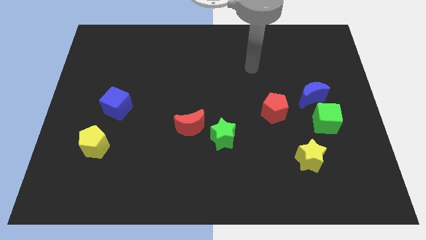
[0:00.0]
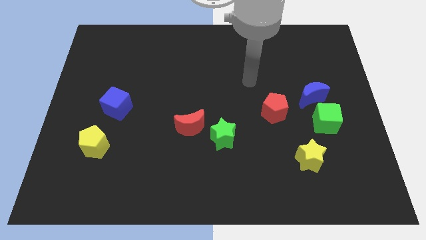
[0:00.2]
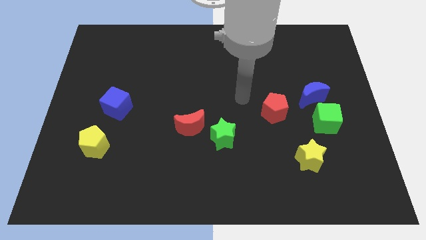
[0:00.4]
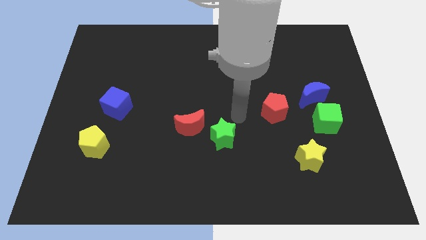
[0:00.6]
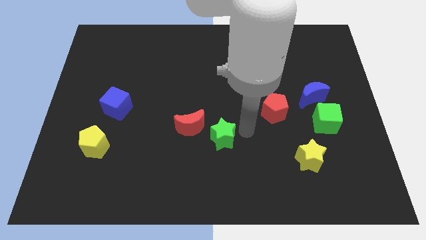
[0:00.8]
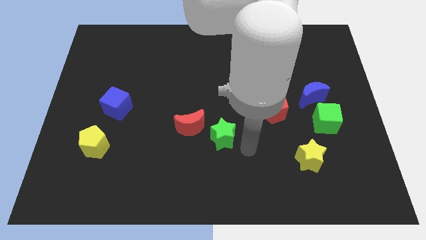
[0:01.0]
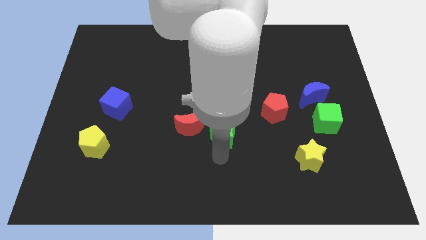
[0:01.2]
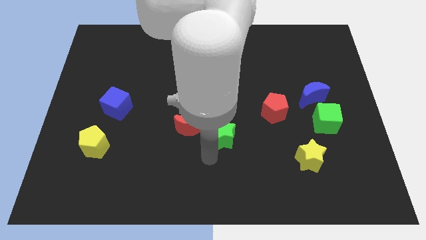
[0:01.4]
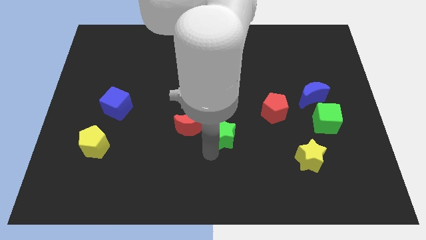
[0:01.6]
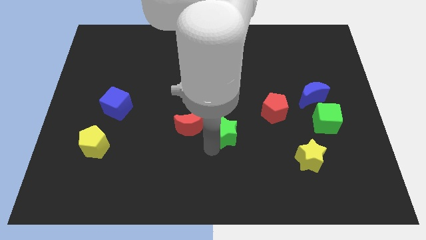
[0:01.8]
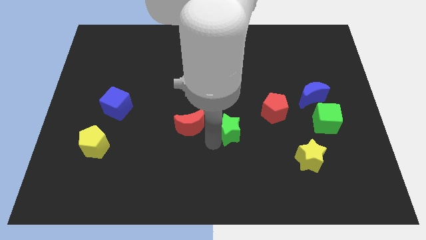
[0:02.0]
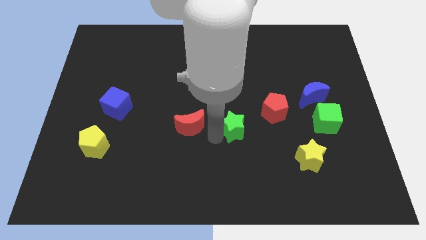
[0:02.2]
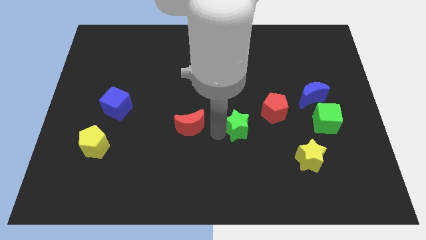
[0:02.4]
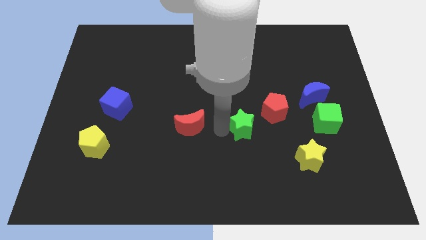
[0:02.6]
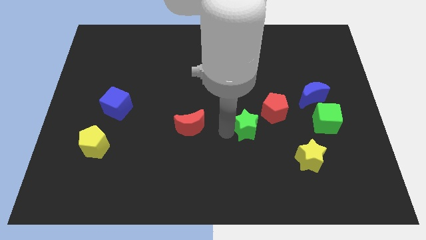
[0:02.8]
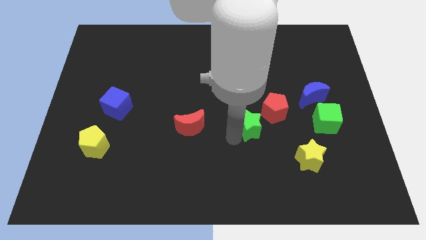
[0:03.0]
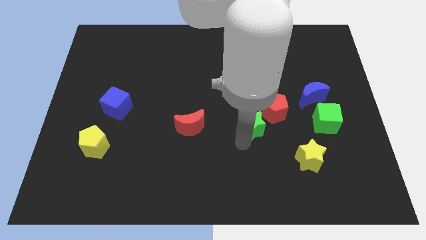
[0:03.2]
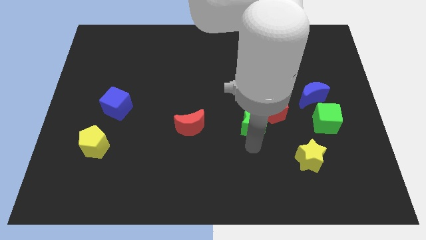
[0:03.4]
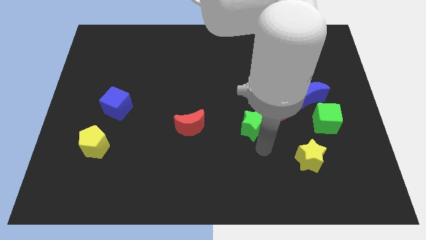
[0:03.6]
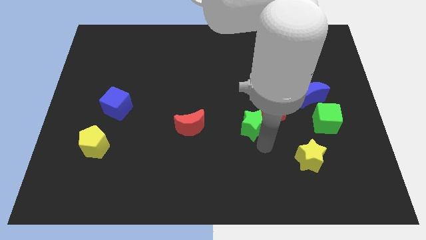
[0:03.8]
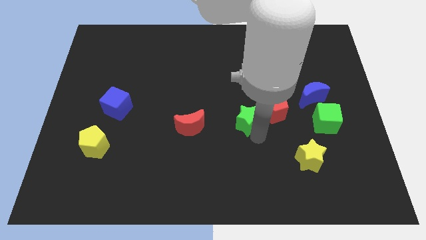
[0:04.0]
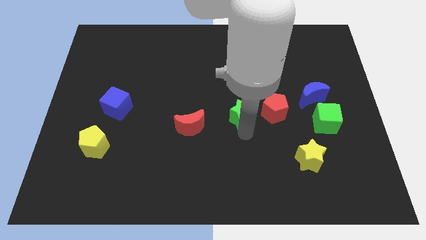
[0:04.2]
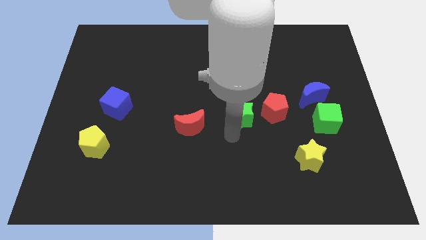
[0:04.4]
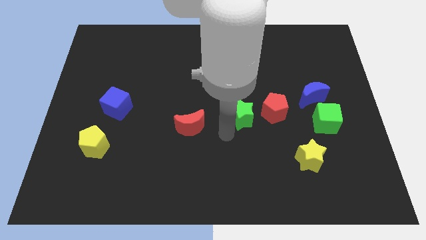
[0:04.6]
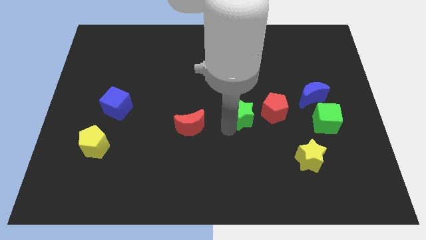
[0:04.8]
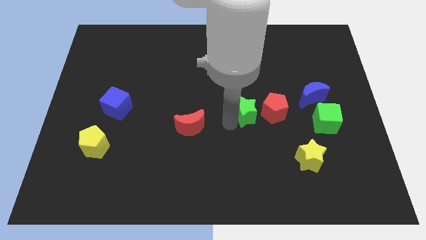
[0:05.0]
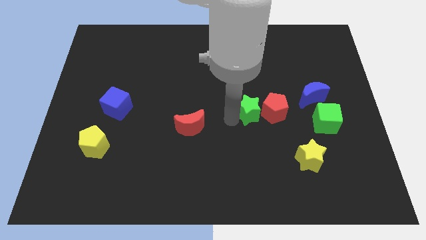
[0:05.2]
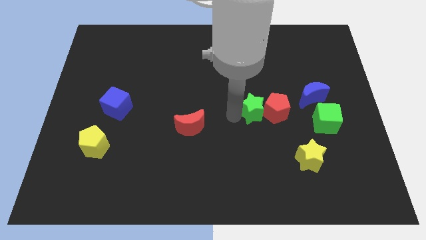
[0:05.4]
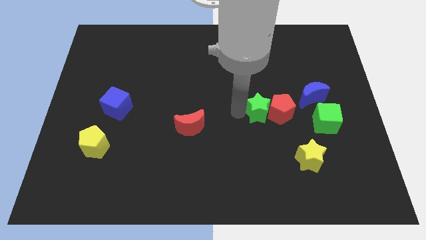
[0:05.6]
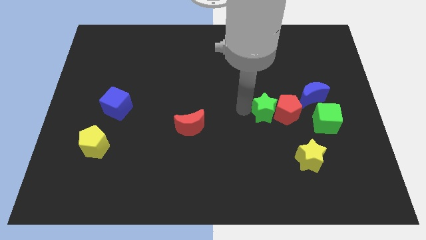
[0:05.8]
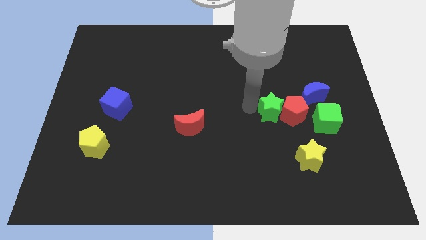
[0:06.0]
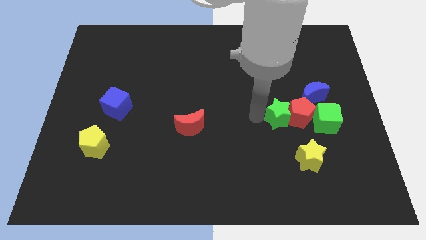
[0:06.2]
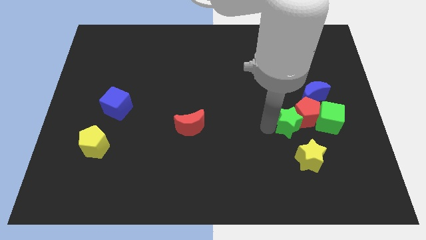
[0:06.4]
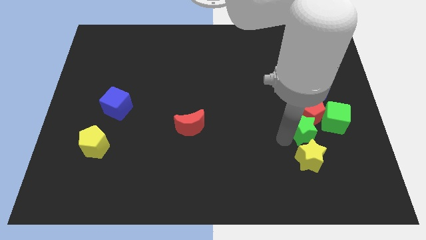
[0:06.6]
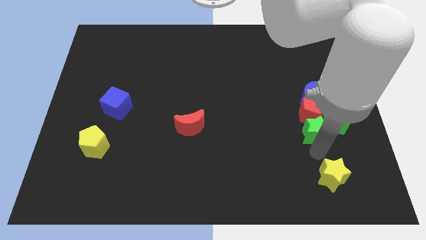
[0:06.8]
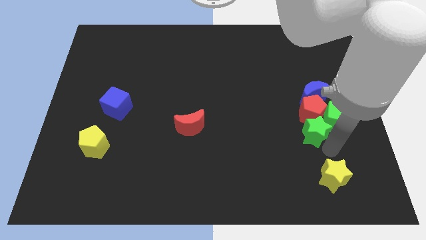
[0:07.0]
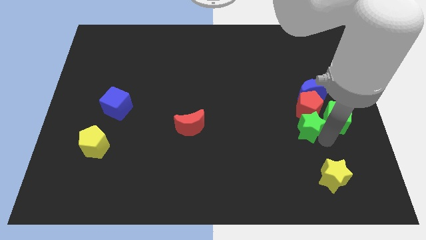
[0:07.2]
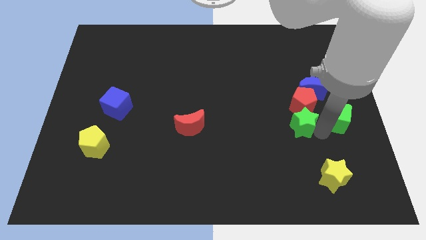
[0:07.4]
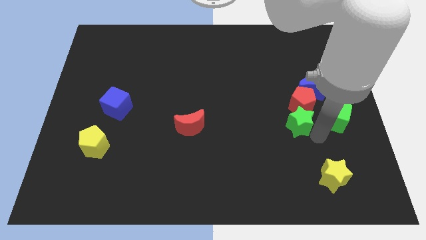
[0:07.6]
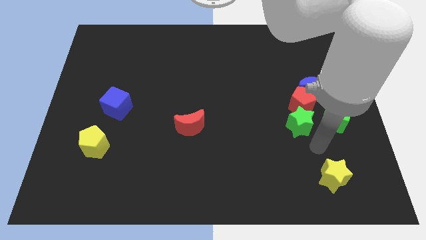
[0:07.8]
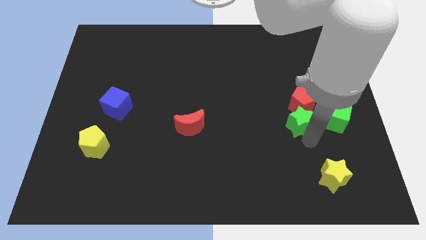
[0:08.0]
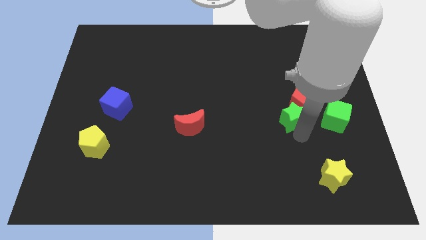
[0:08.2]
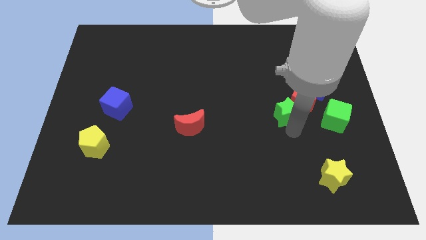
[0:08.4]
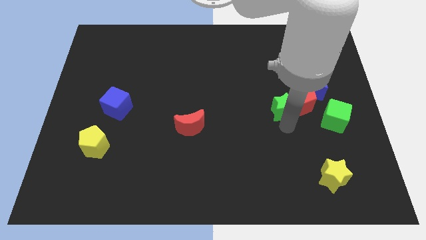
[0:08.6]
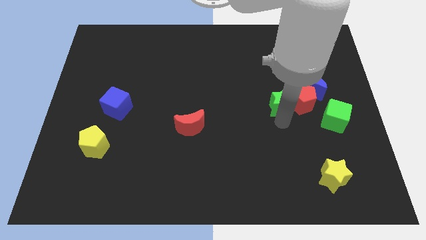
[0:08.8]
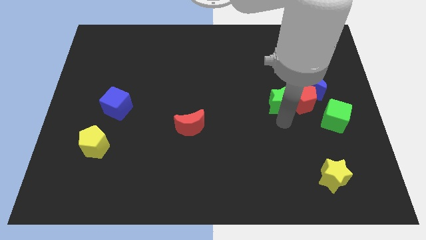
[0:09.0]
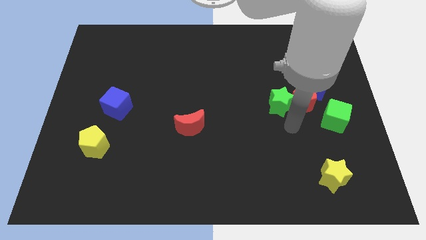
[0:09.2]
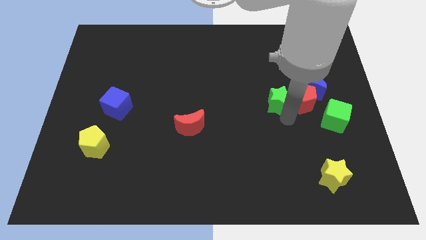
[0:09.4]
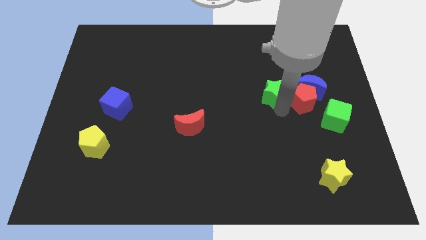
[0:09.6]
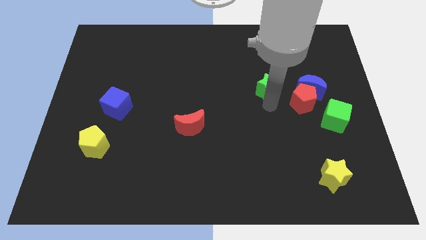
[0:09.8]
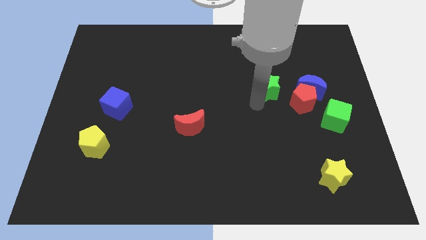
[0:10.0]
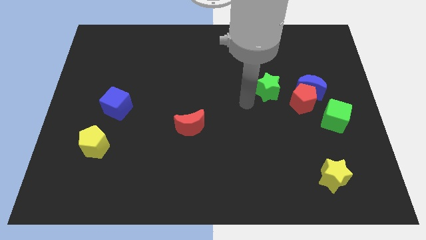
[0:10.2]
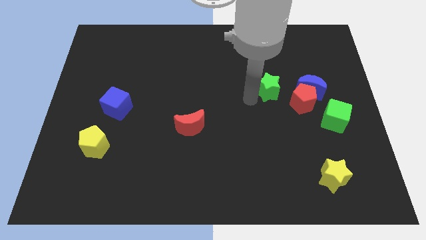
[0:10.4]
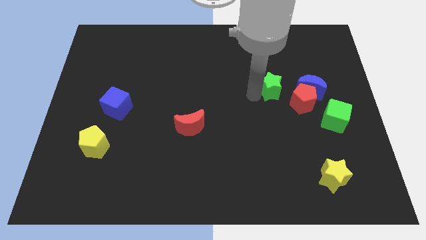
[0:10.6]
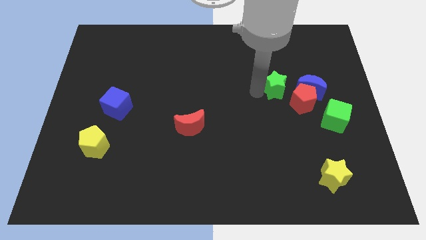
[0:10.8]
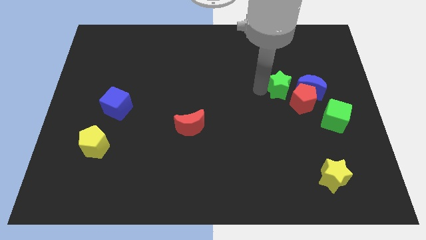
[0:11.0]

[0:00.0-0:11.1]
push the green star upwards and then right

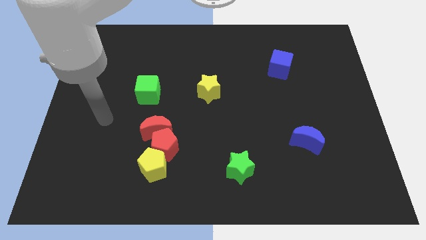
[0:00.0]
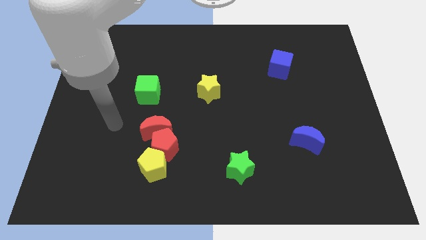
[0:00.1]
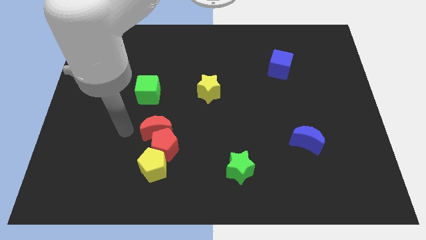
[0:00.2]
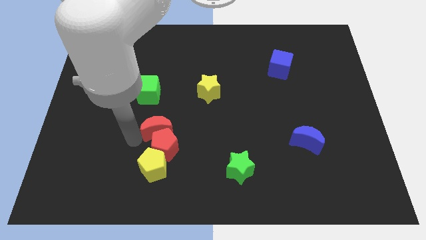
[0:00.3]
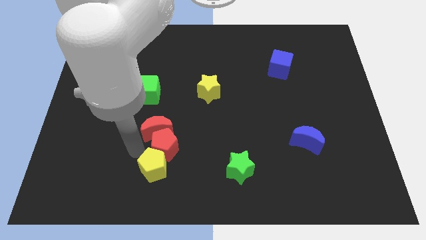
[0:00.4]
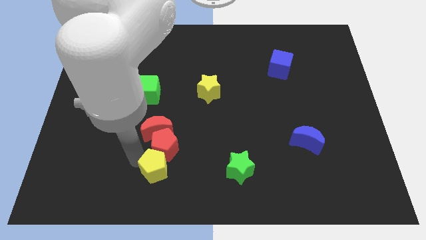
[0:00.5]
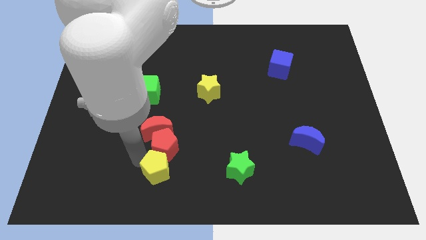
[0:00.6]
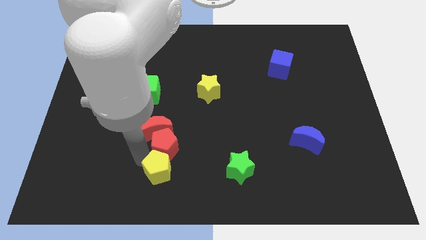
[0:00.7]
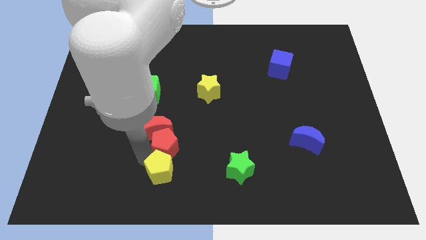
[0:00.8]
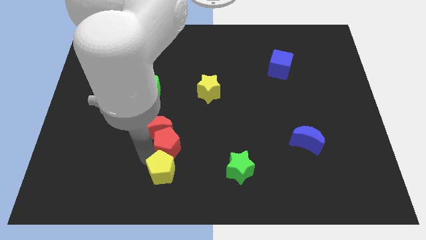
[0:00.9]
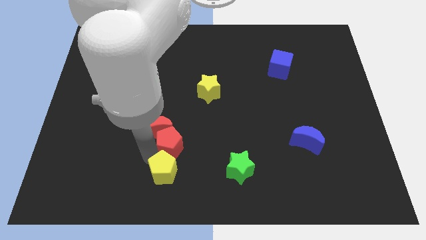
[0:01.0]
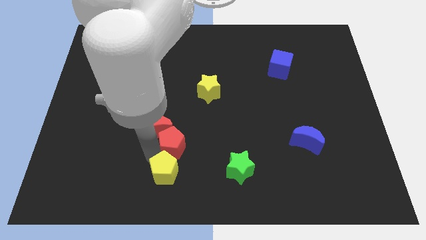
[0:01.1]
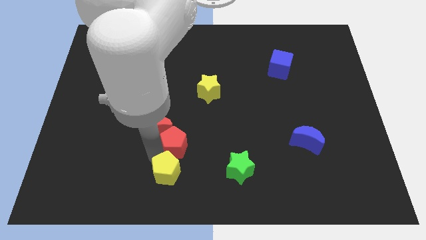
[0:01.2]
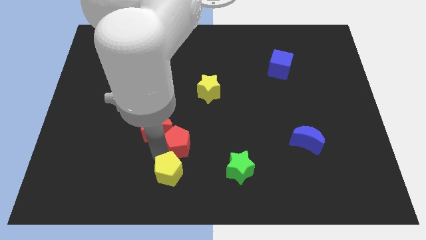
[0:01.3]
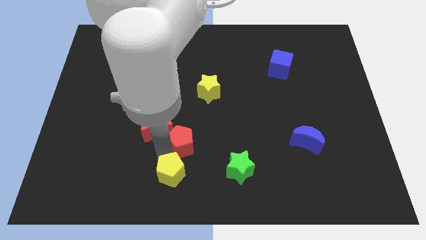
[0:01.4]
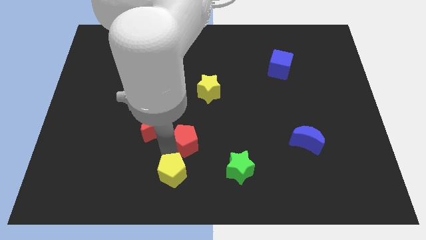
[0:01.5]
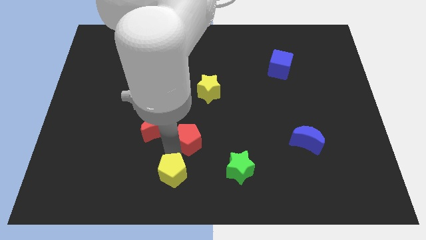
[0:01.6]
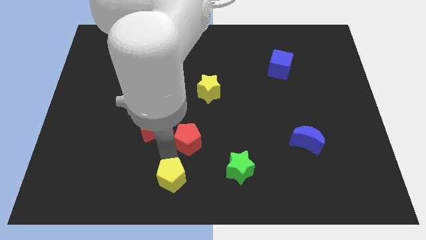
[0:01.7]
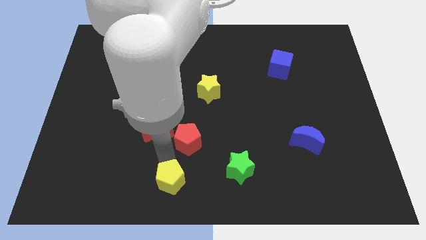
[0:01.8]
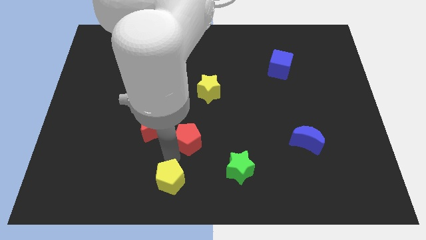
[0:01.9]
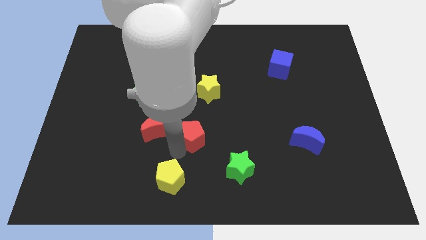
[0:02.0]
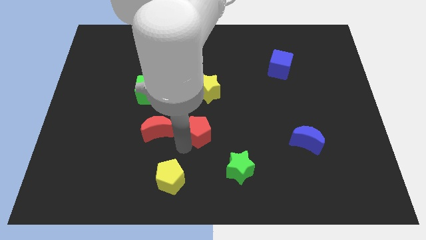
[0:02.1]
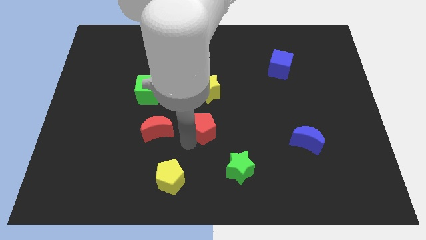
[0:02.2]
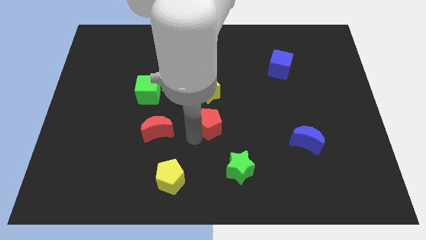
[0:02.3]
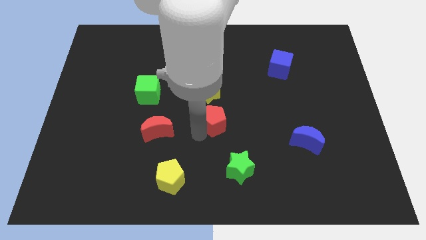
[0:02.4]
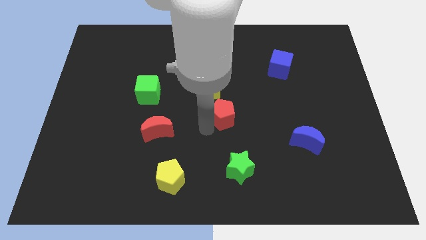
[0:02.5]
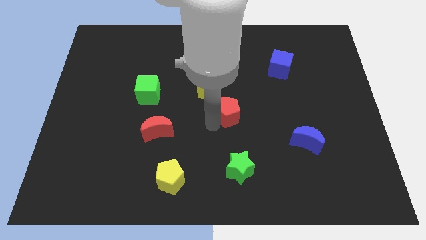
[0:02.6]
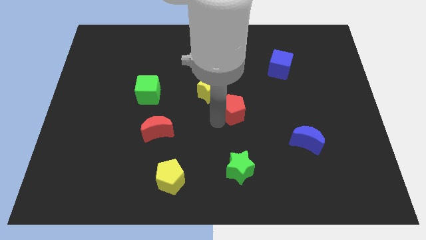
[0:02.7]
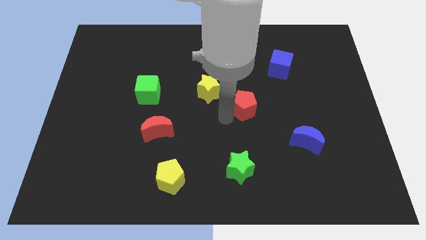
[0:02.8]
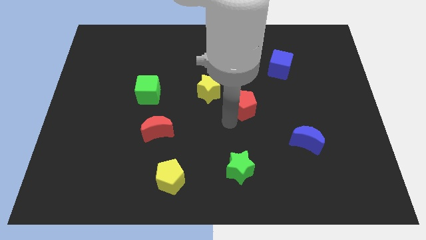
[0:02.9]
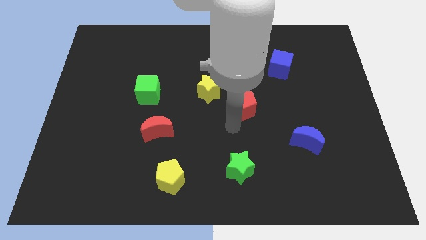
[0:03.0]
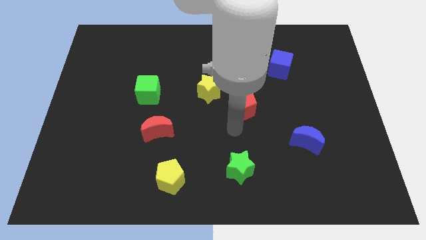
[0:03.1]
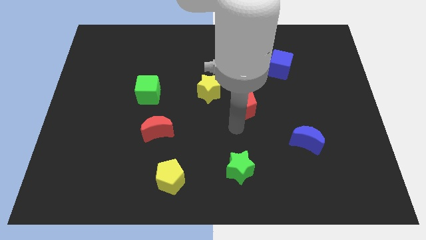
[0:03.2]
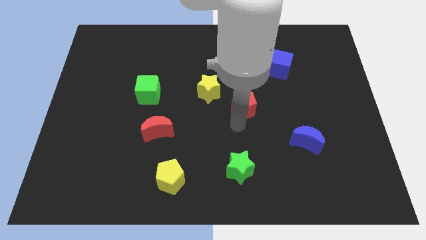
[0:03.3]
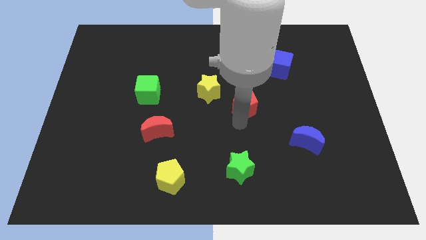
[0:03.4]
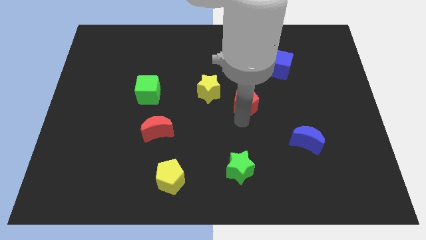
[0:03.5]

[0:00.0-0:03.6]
push the red pentagon upwards and to the right diagonally
